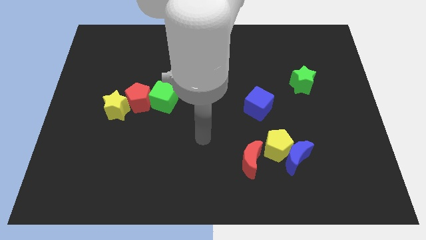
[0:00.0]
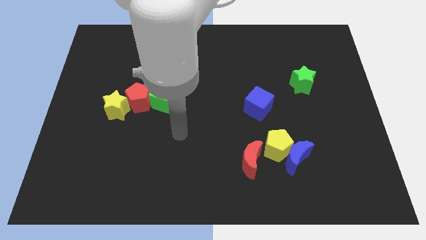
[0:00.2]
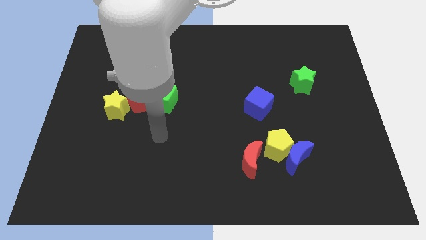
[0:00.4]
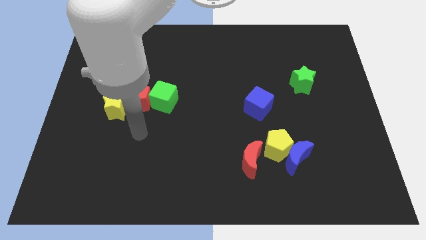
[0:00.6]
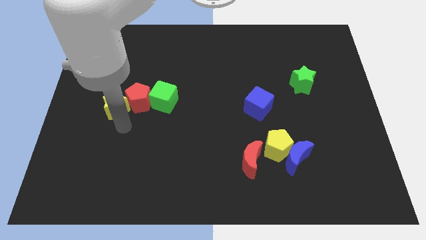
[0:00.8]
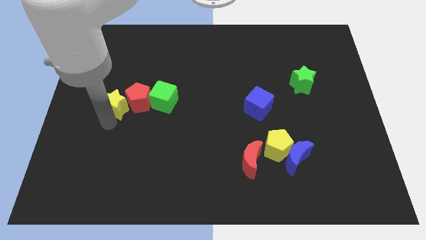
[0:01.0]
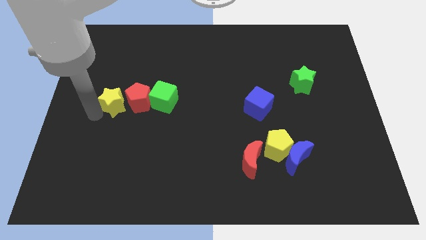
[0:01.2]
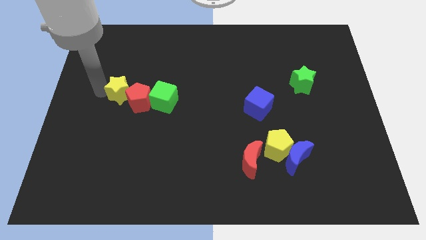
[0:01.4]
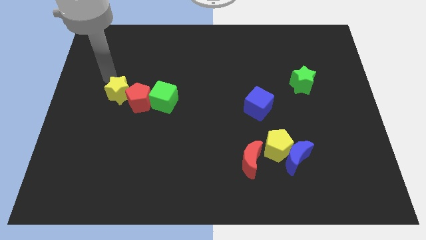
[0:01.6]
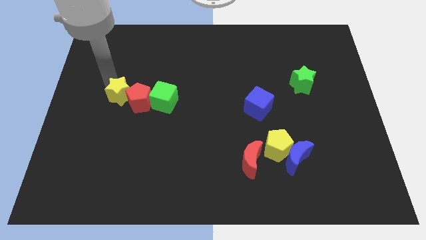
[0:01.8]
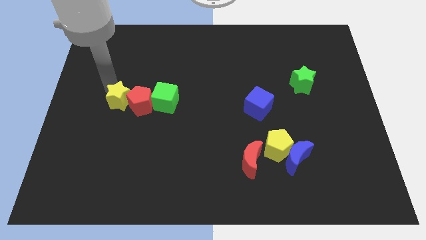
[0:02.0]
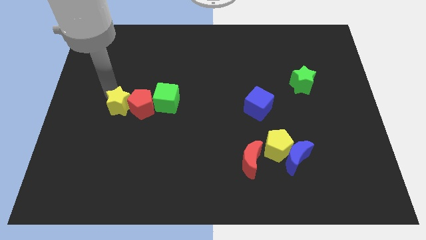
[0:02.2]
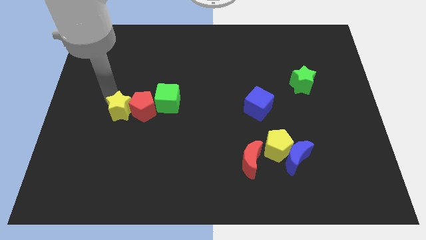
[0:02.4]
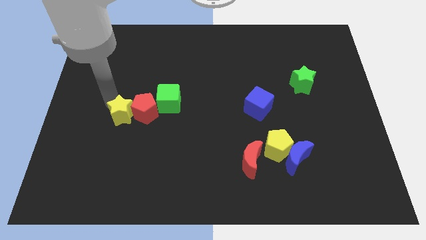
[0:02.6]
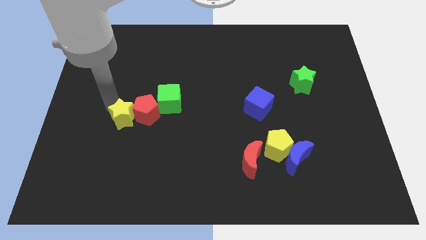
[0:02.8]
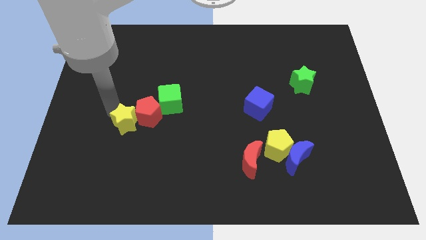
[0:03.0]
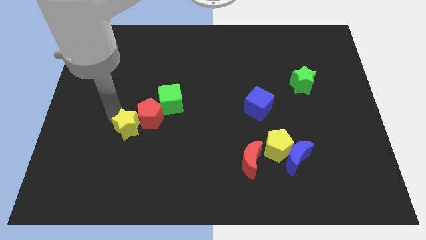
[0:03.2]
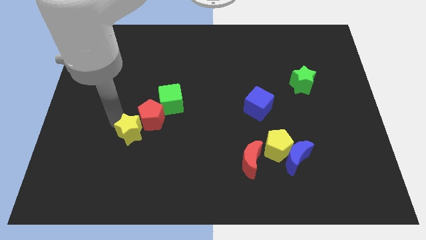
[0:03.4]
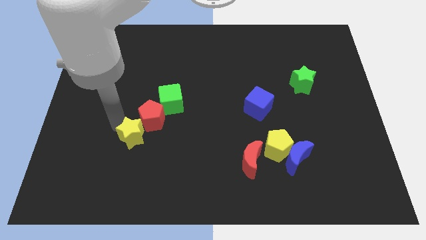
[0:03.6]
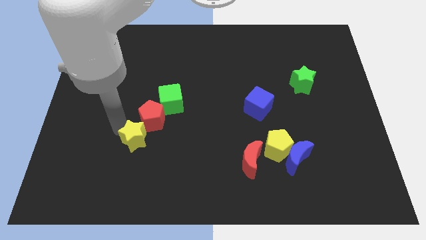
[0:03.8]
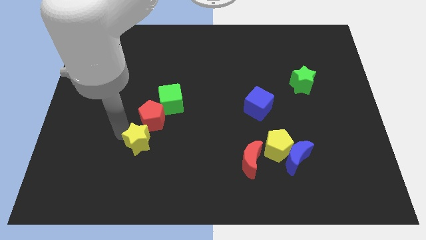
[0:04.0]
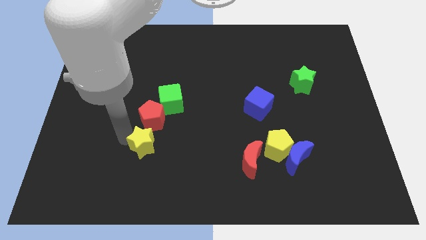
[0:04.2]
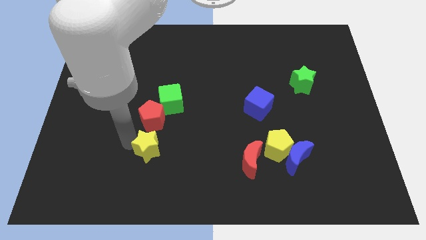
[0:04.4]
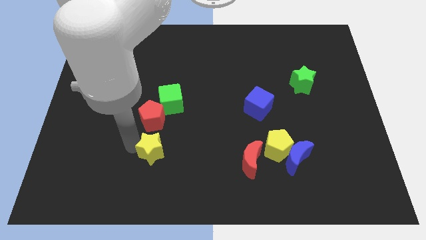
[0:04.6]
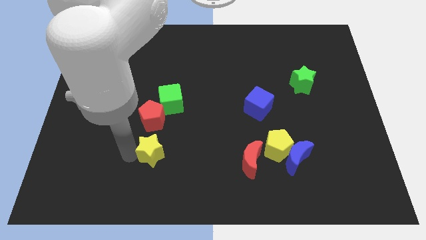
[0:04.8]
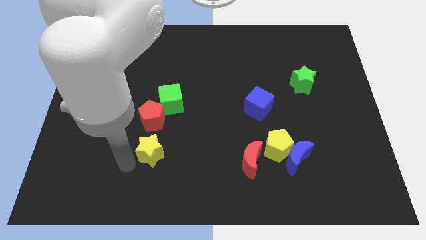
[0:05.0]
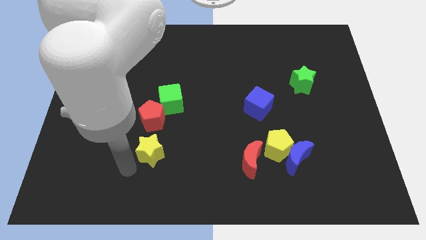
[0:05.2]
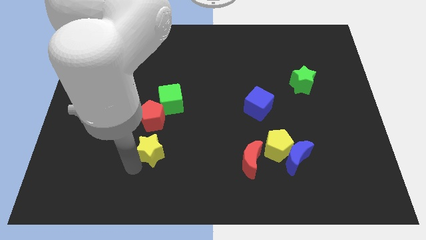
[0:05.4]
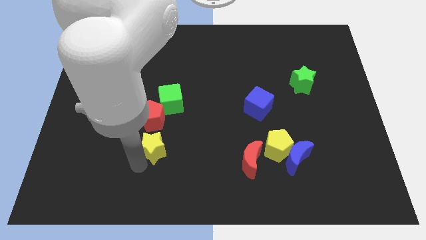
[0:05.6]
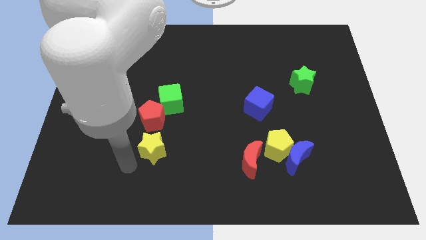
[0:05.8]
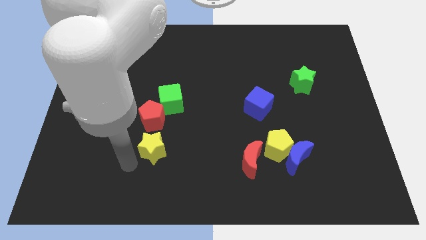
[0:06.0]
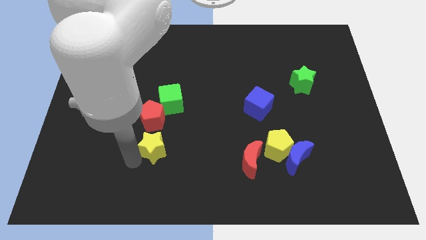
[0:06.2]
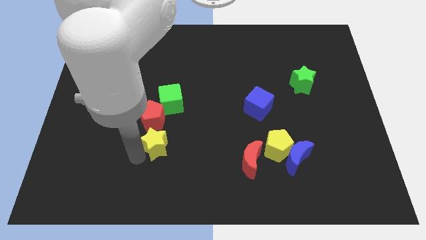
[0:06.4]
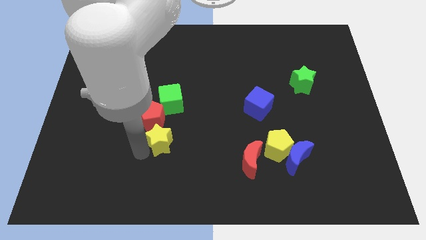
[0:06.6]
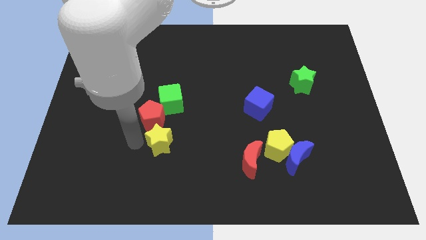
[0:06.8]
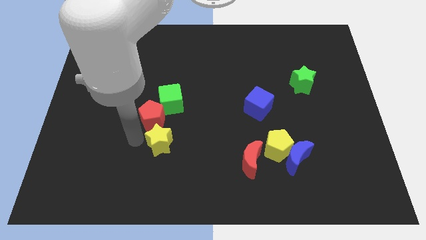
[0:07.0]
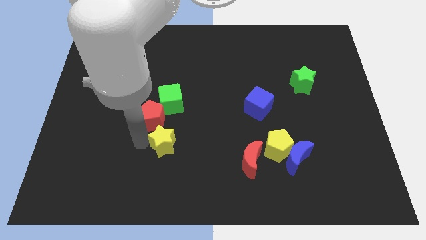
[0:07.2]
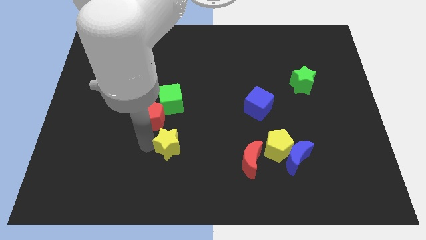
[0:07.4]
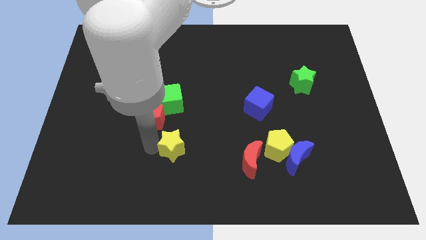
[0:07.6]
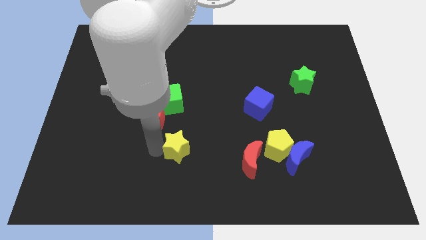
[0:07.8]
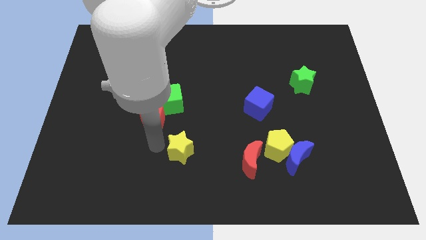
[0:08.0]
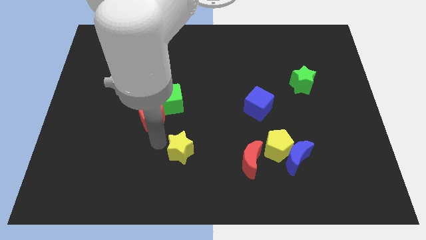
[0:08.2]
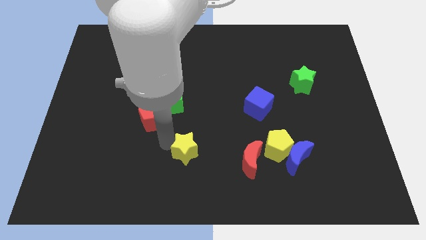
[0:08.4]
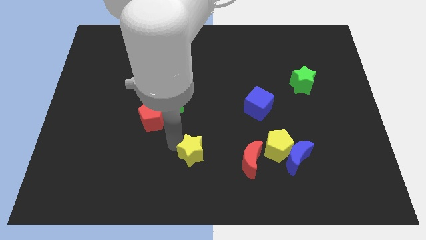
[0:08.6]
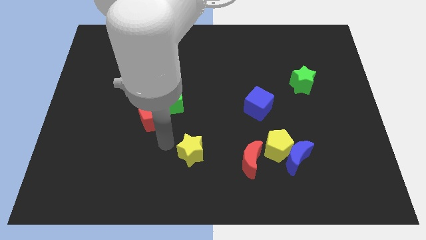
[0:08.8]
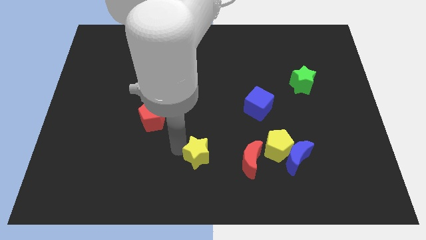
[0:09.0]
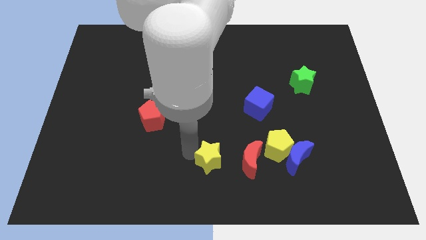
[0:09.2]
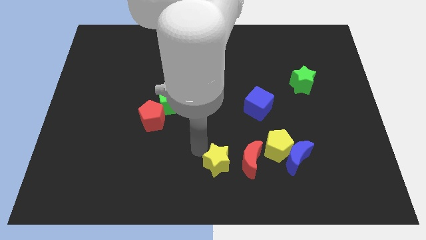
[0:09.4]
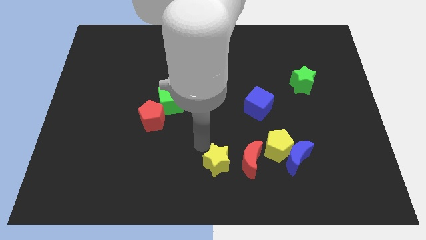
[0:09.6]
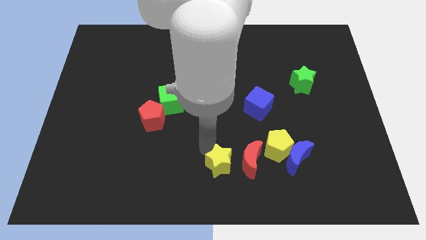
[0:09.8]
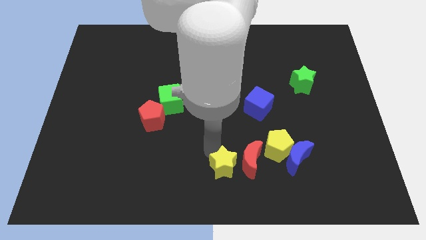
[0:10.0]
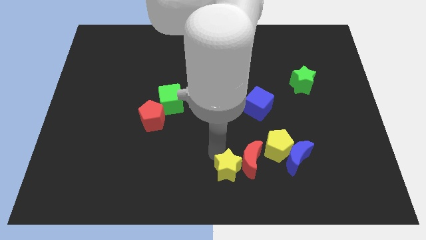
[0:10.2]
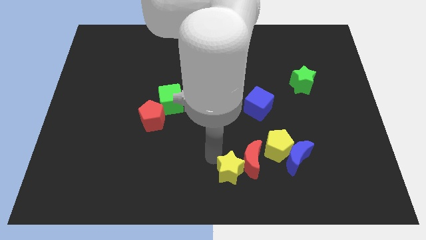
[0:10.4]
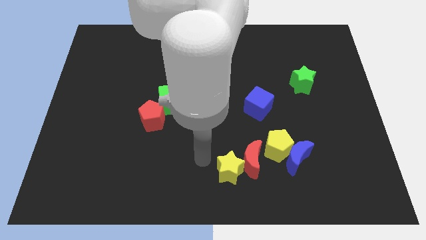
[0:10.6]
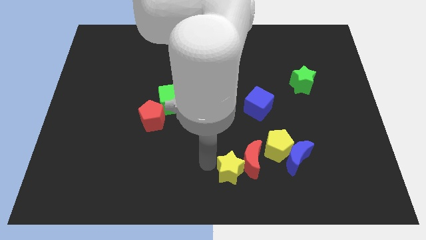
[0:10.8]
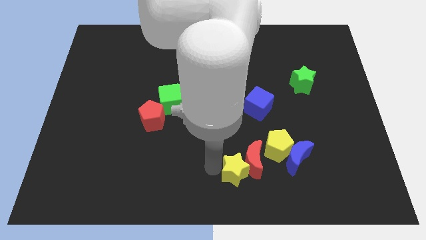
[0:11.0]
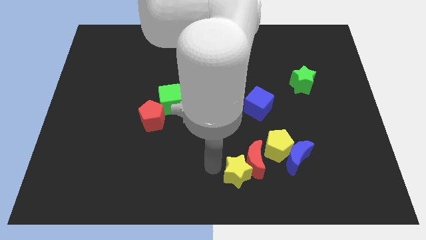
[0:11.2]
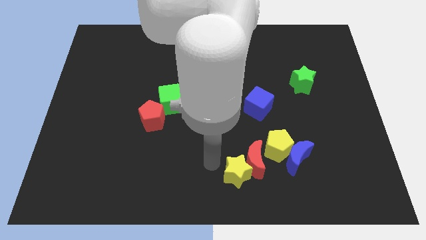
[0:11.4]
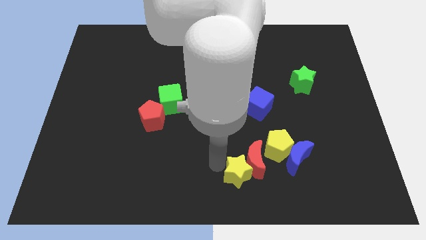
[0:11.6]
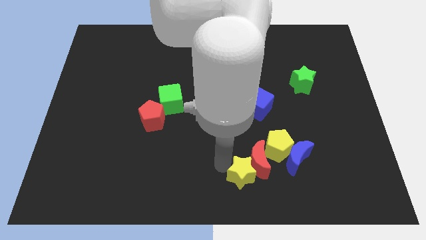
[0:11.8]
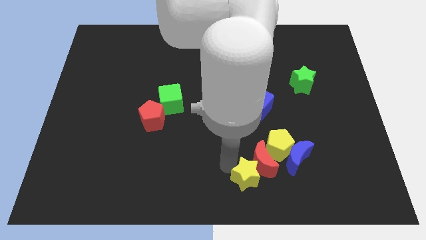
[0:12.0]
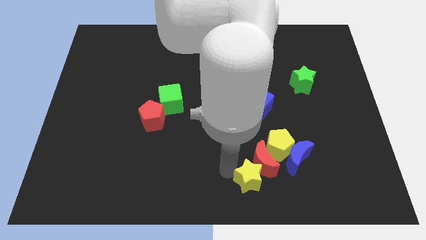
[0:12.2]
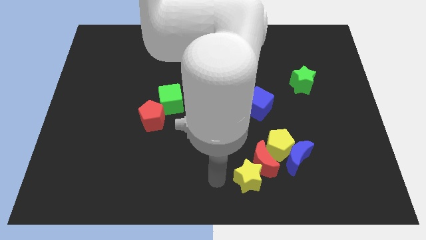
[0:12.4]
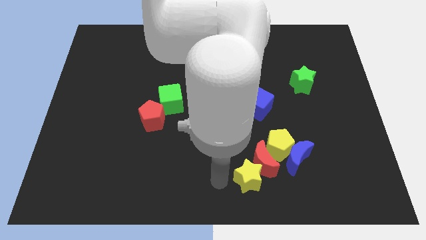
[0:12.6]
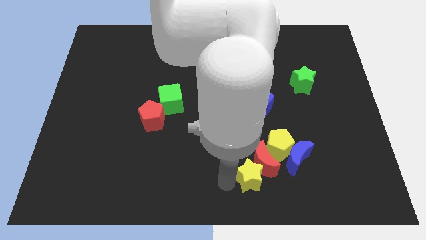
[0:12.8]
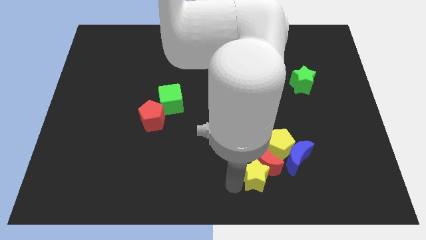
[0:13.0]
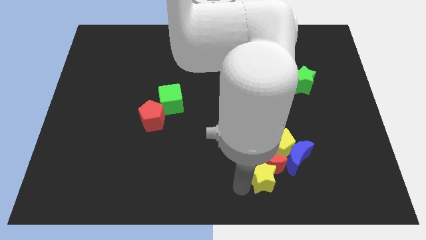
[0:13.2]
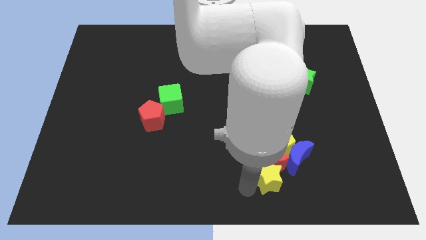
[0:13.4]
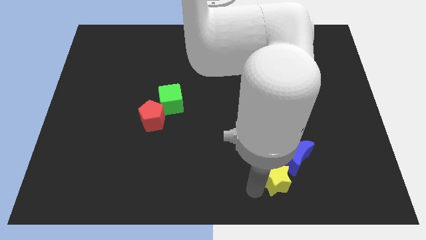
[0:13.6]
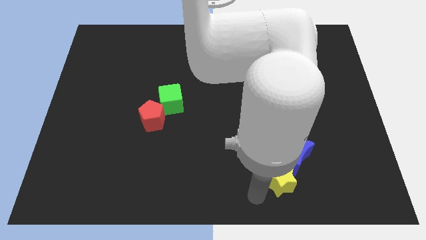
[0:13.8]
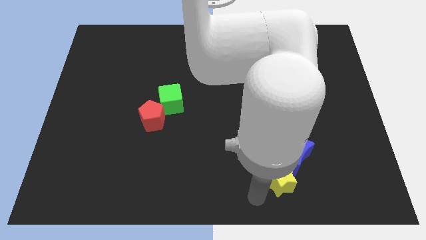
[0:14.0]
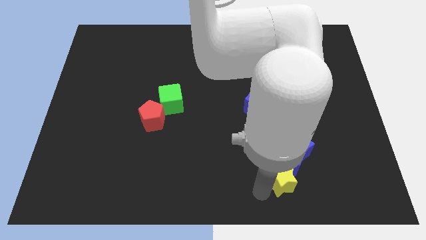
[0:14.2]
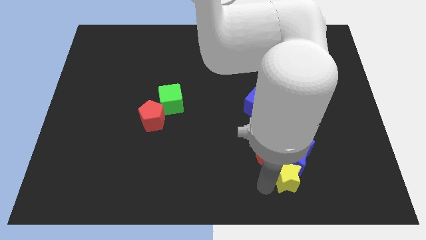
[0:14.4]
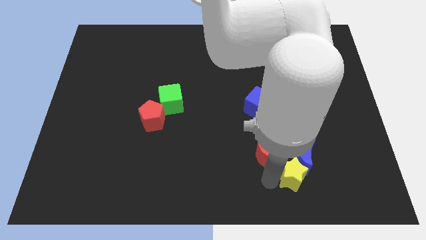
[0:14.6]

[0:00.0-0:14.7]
slide the yellow star to the bottom right of the yellow pentagon
